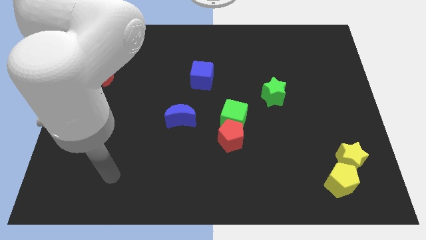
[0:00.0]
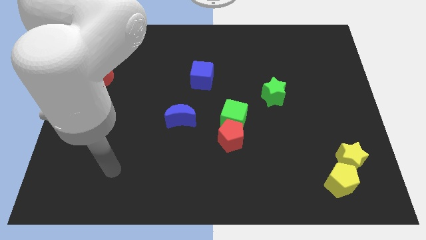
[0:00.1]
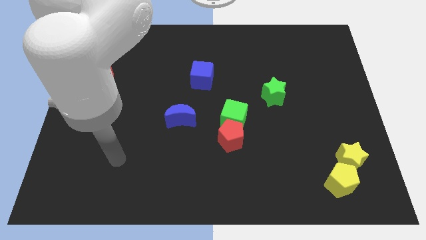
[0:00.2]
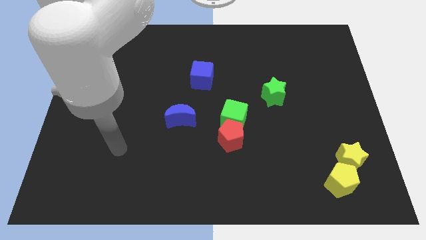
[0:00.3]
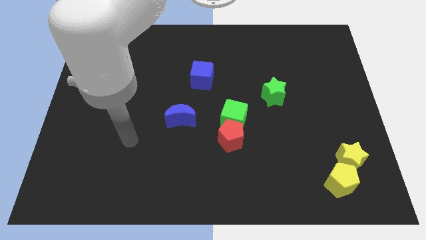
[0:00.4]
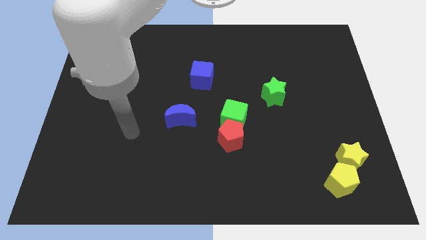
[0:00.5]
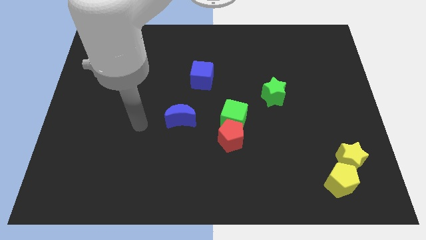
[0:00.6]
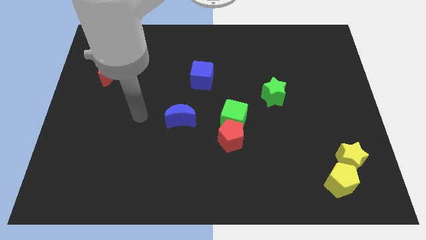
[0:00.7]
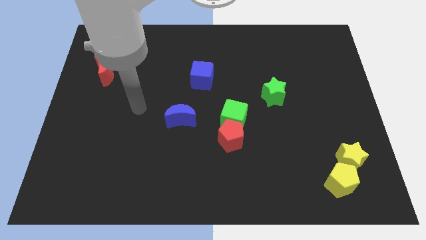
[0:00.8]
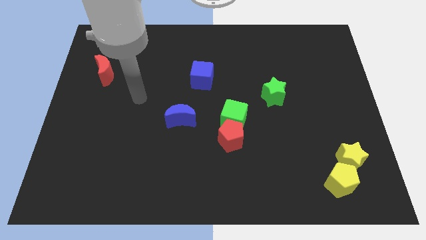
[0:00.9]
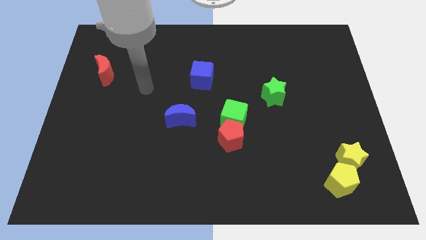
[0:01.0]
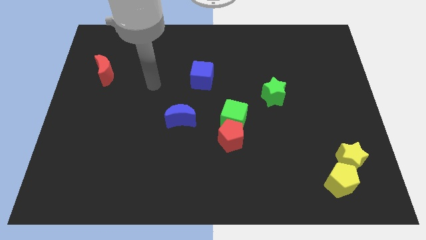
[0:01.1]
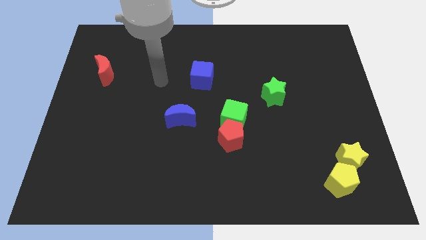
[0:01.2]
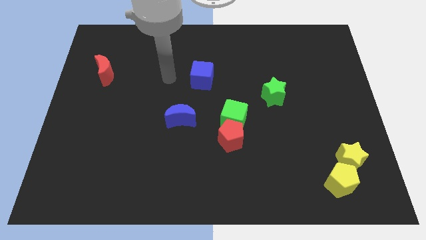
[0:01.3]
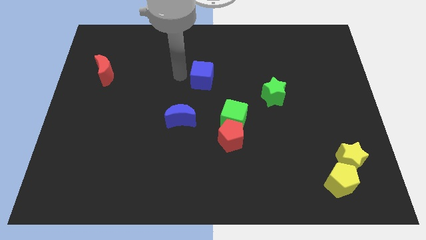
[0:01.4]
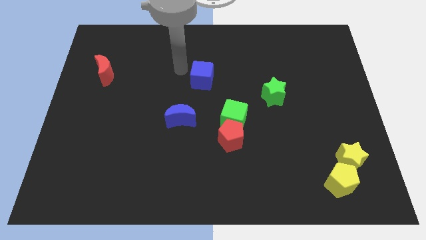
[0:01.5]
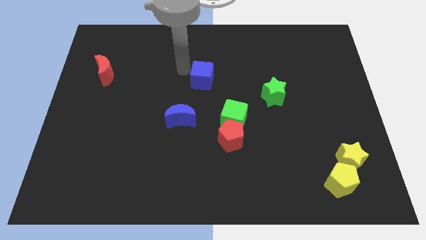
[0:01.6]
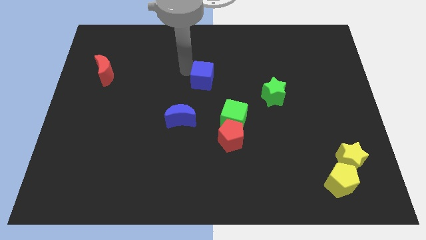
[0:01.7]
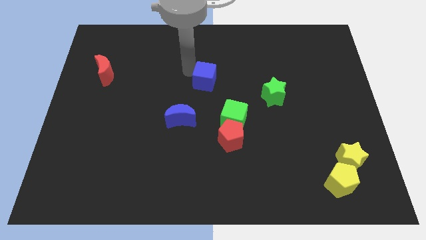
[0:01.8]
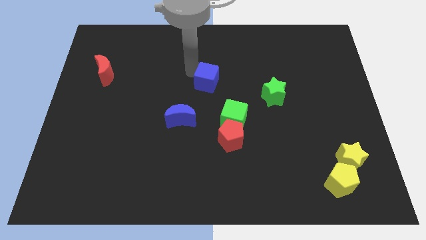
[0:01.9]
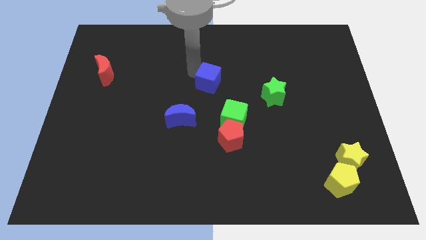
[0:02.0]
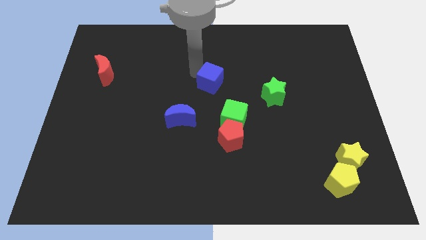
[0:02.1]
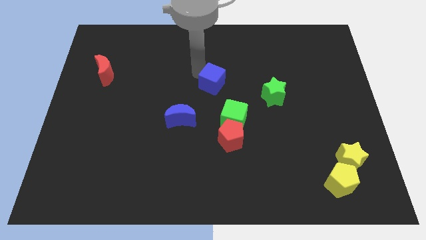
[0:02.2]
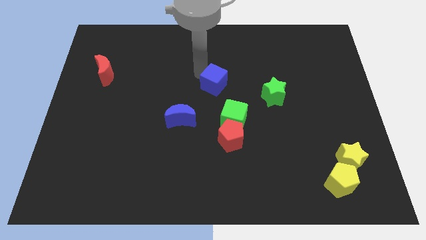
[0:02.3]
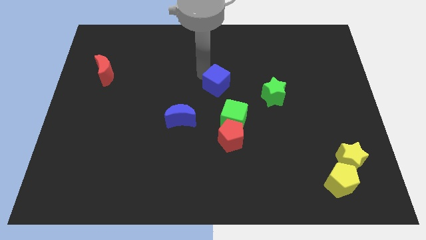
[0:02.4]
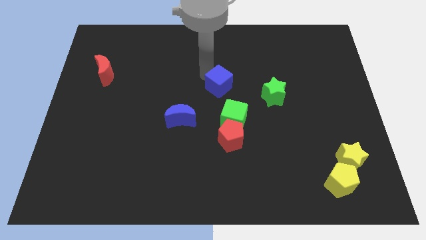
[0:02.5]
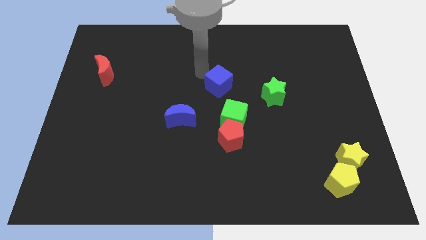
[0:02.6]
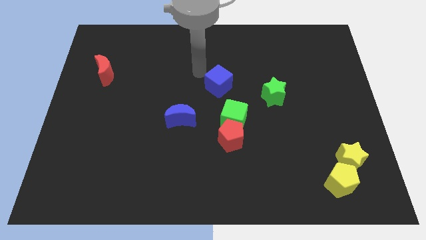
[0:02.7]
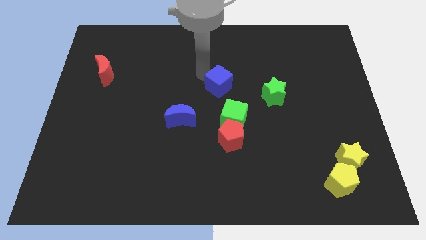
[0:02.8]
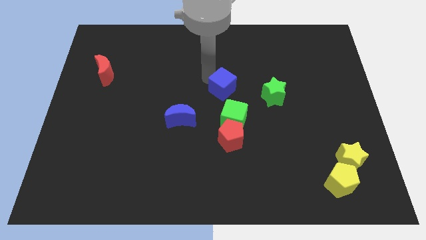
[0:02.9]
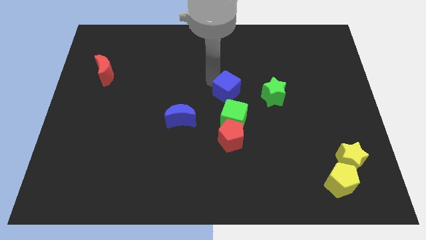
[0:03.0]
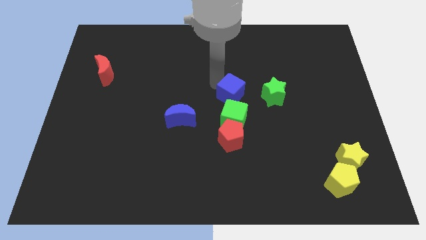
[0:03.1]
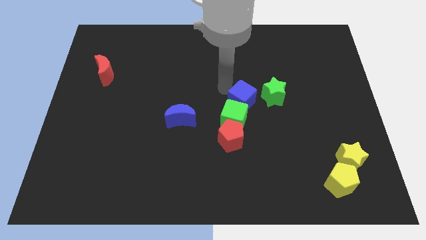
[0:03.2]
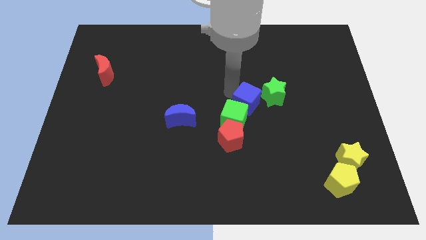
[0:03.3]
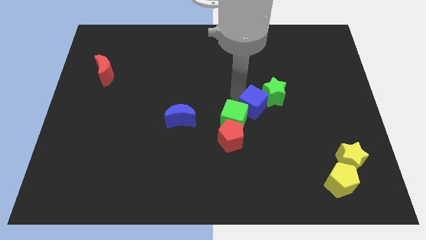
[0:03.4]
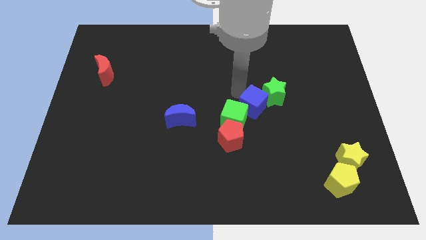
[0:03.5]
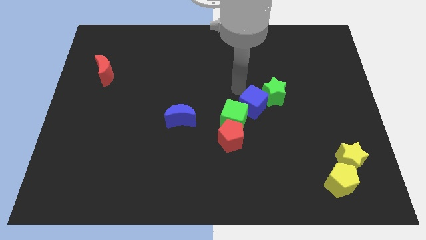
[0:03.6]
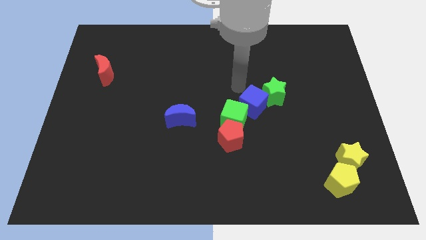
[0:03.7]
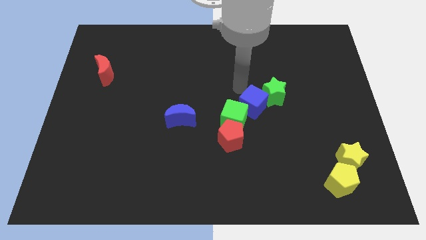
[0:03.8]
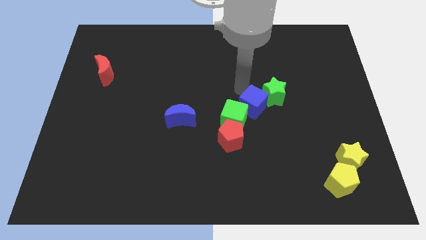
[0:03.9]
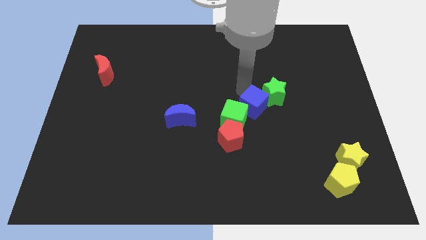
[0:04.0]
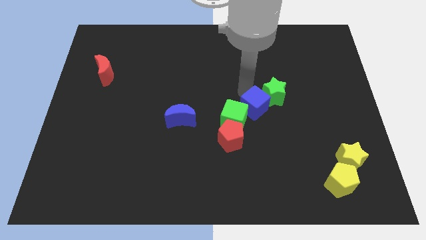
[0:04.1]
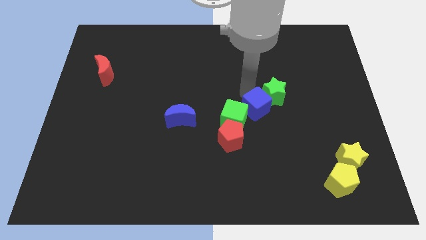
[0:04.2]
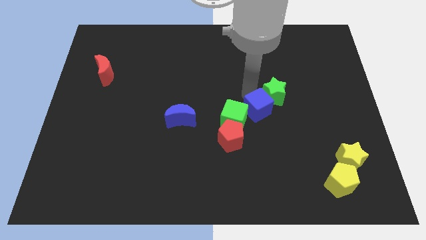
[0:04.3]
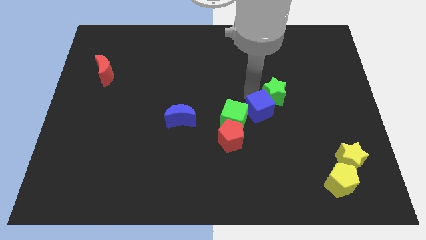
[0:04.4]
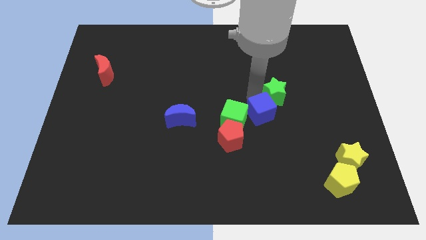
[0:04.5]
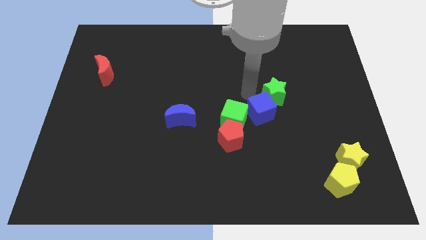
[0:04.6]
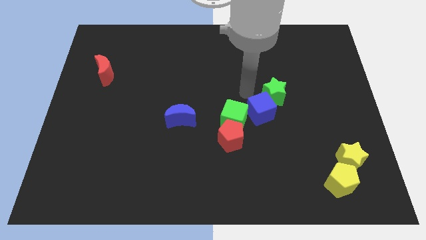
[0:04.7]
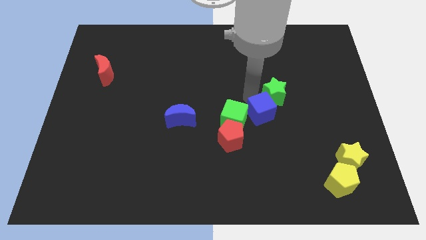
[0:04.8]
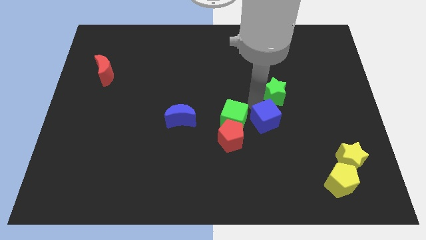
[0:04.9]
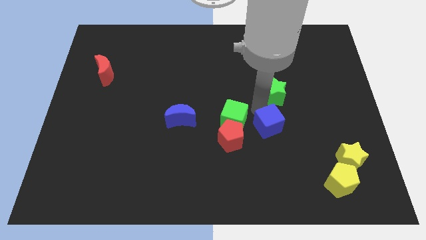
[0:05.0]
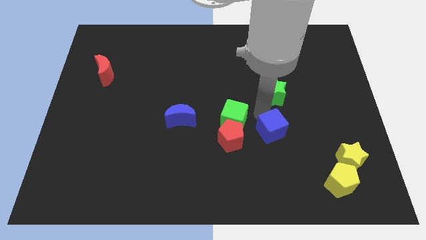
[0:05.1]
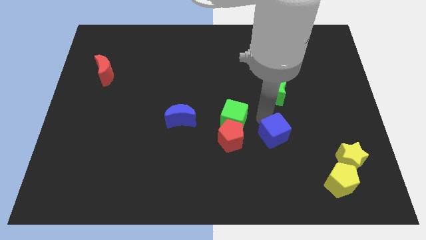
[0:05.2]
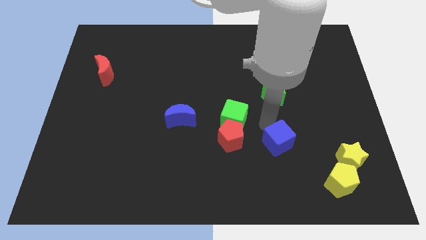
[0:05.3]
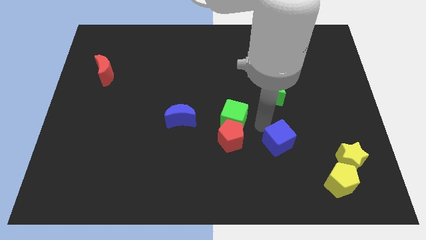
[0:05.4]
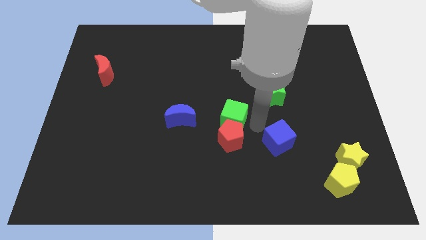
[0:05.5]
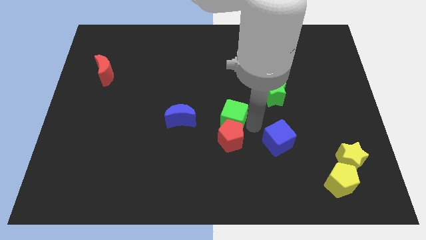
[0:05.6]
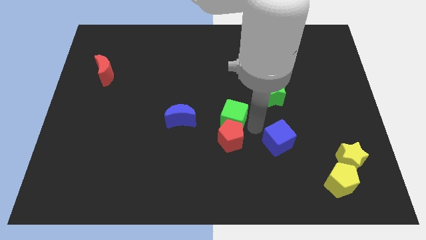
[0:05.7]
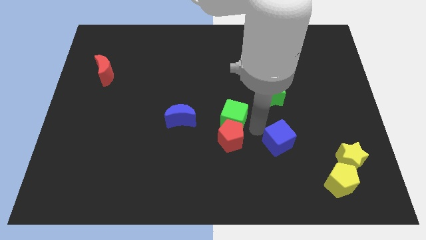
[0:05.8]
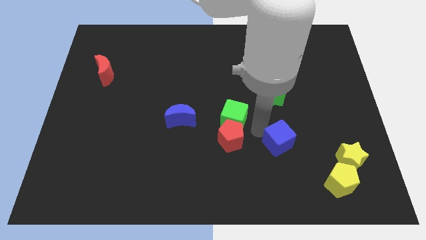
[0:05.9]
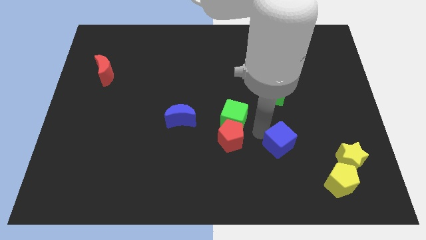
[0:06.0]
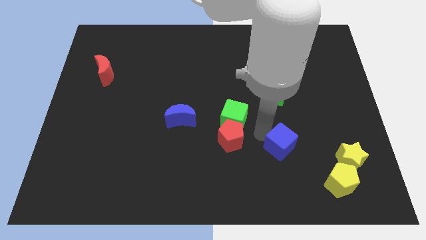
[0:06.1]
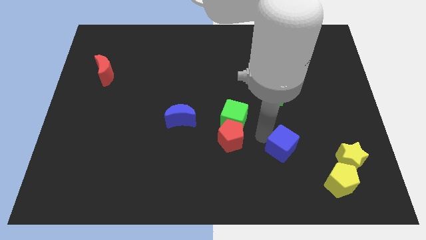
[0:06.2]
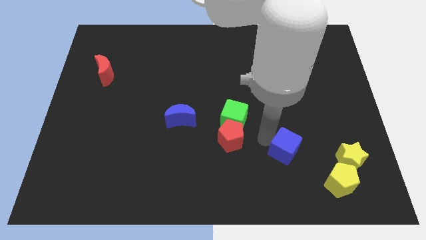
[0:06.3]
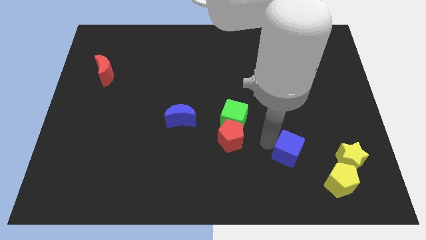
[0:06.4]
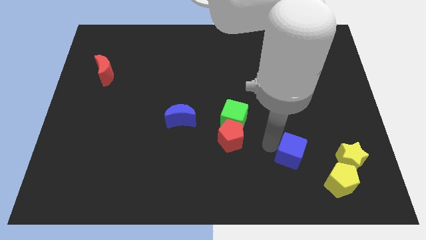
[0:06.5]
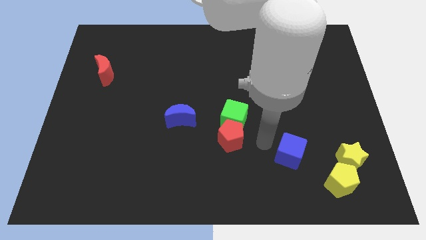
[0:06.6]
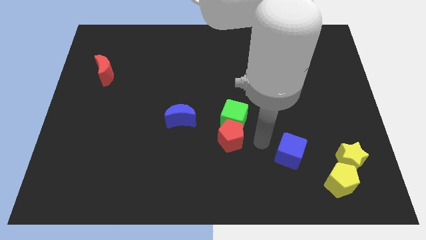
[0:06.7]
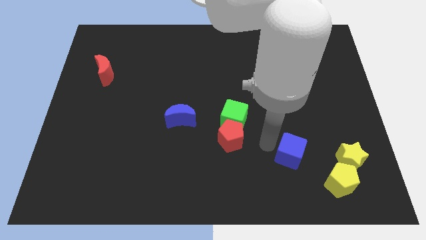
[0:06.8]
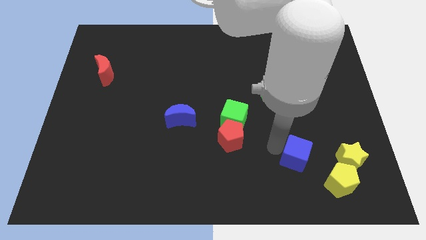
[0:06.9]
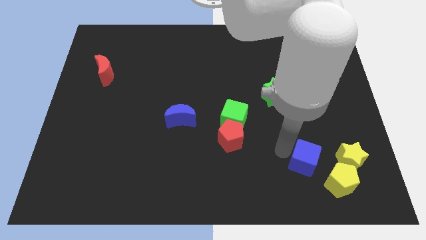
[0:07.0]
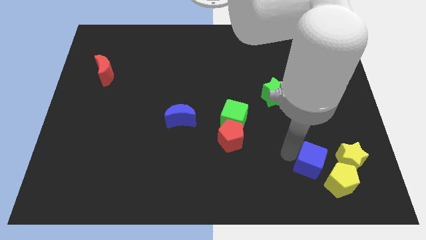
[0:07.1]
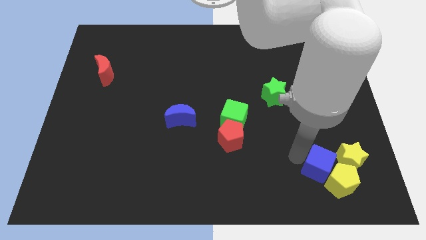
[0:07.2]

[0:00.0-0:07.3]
slide the blue cube towards the yellow pentagon
